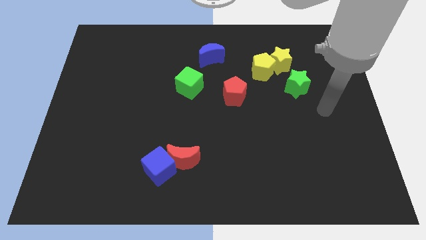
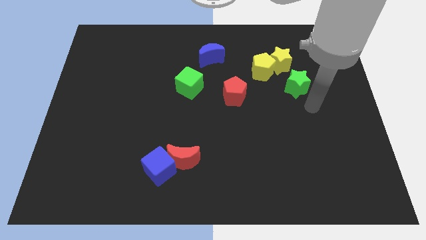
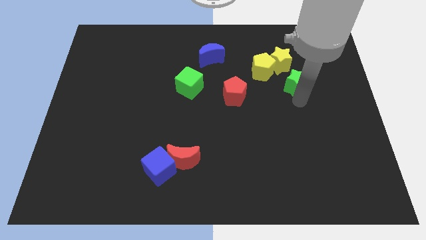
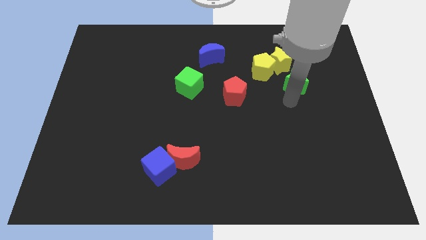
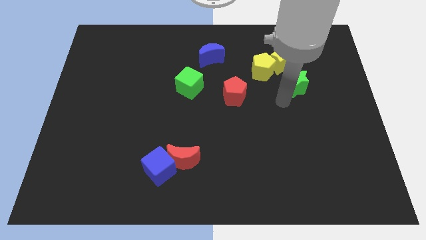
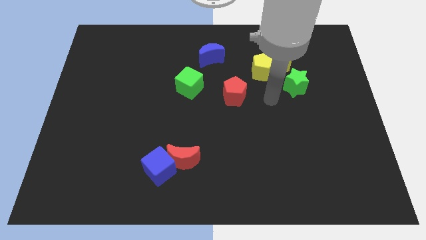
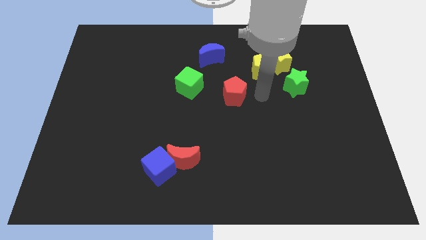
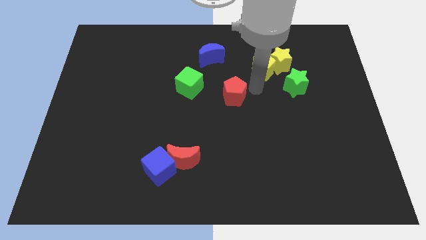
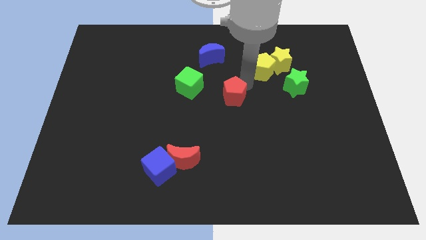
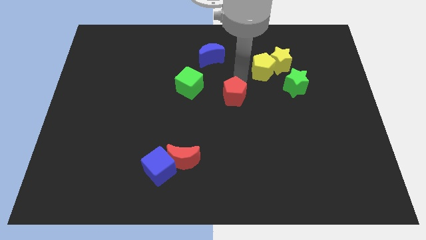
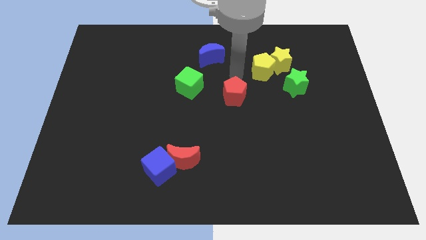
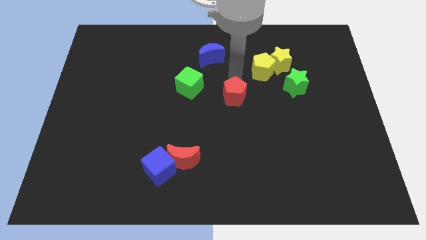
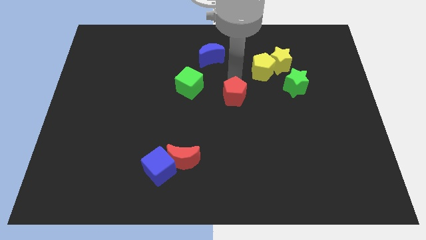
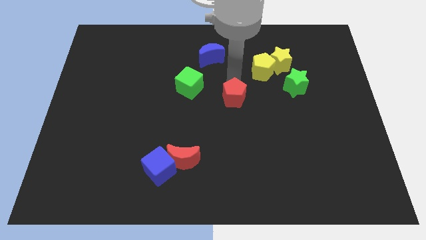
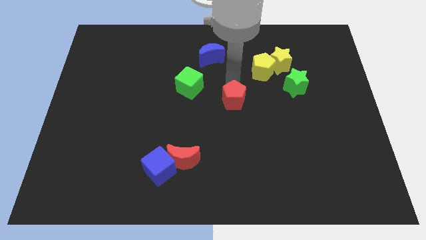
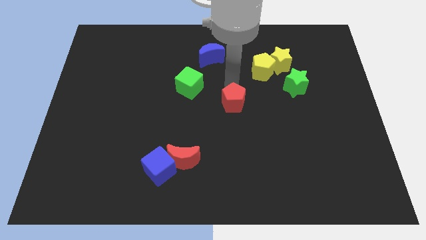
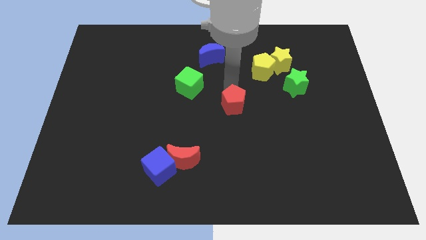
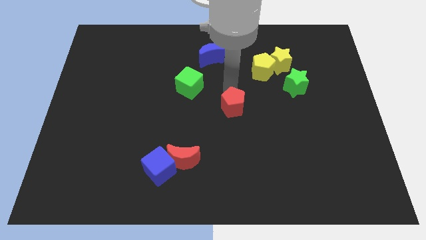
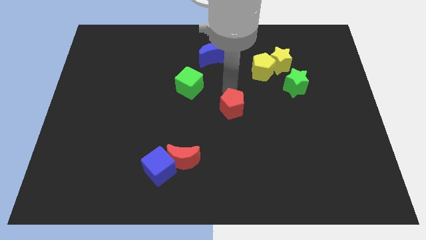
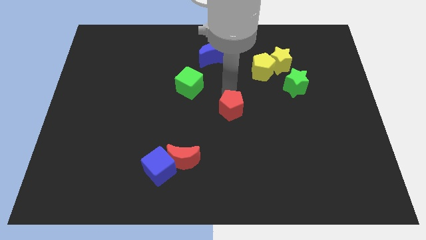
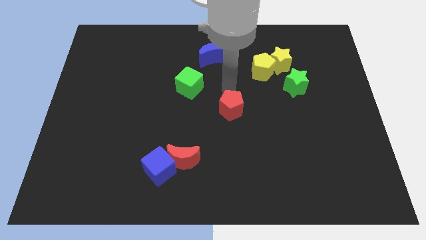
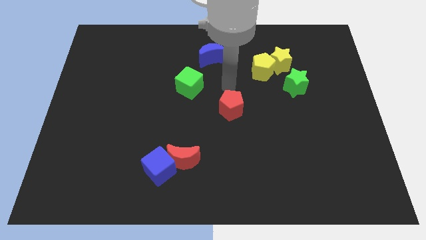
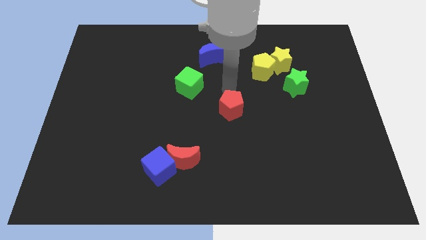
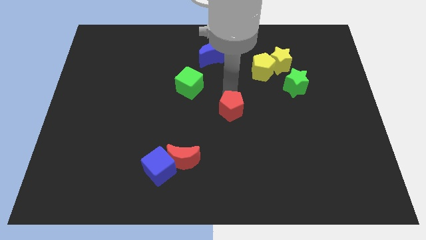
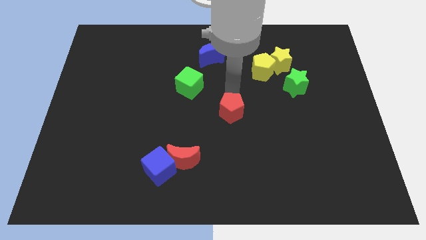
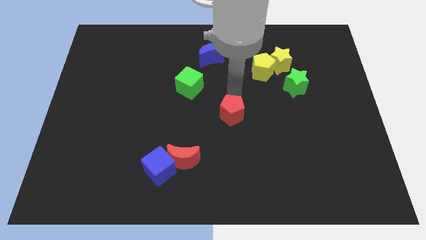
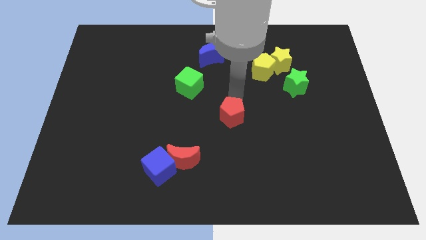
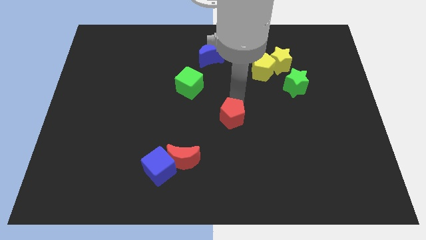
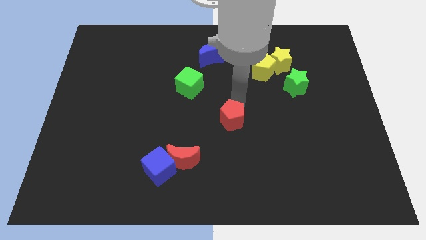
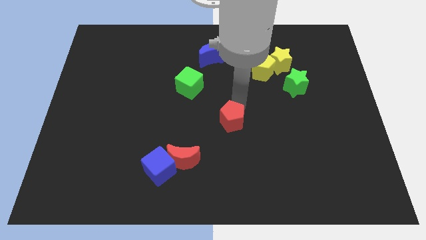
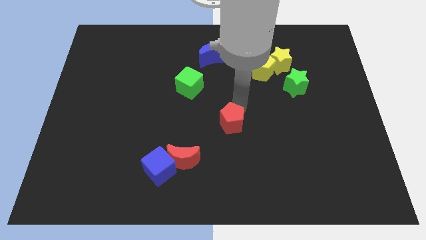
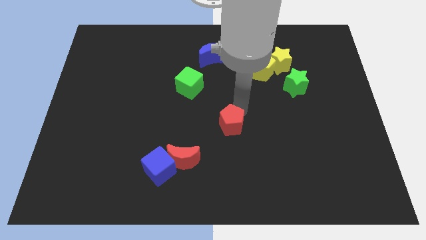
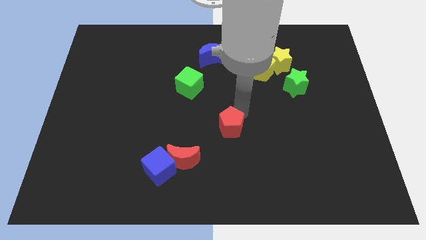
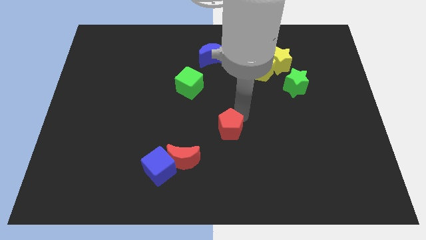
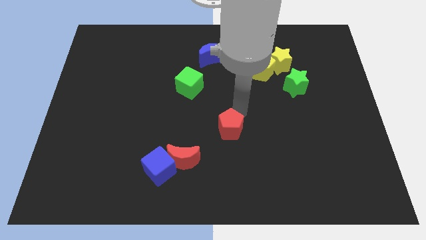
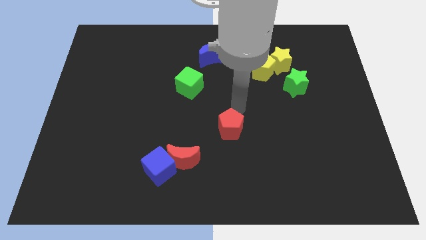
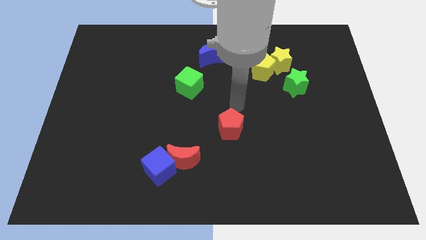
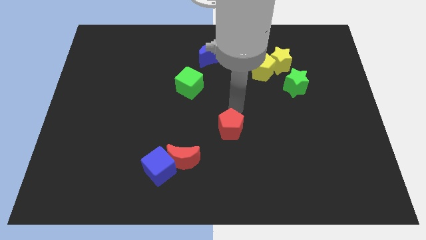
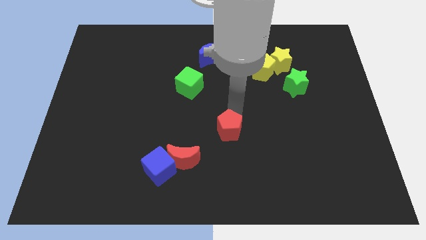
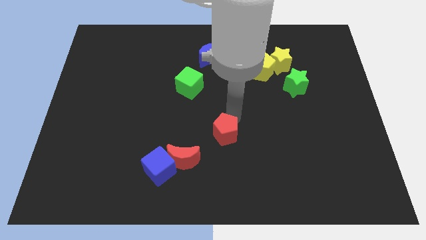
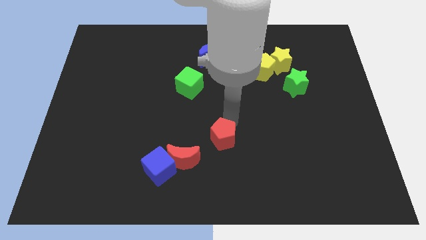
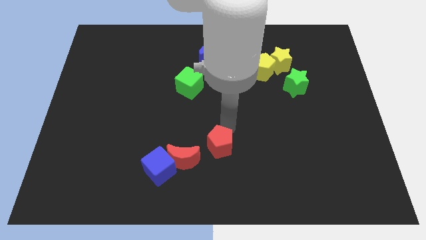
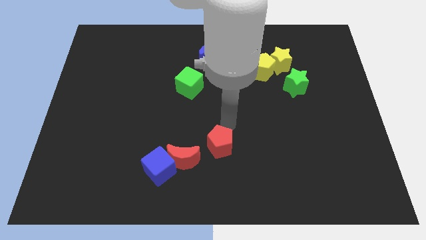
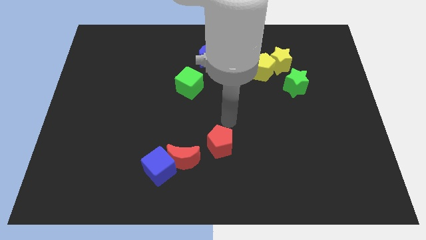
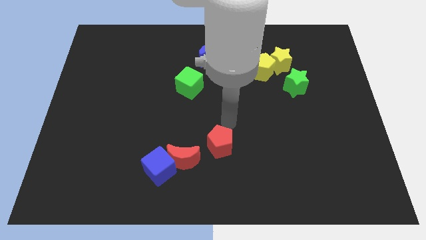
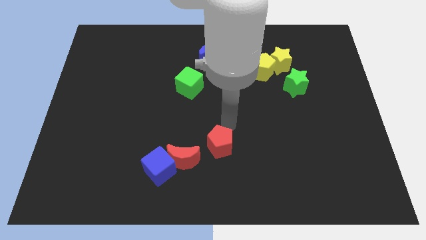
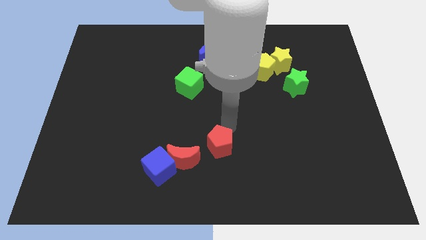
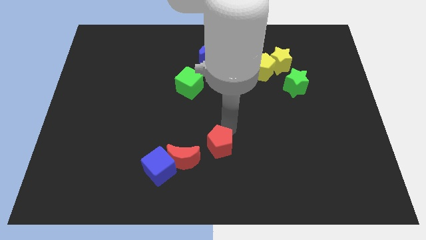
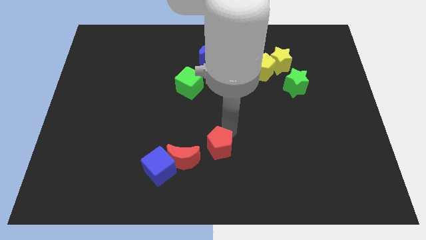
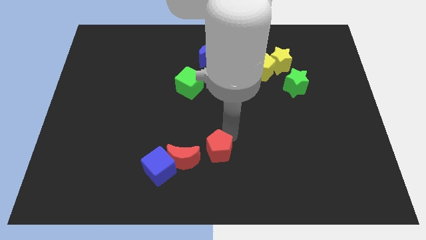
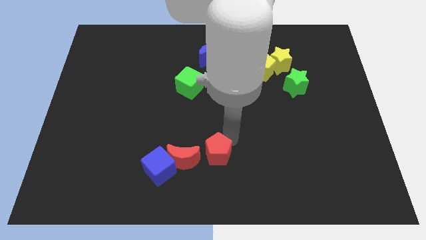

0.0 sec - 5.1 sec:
slide the red pentagon to the bottom

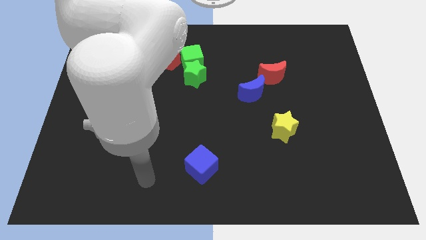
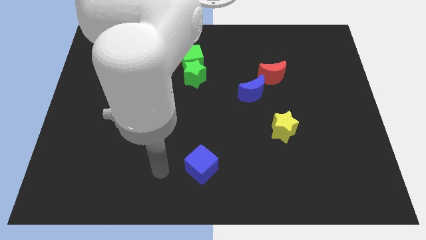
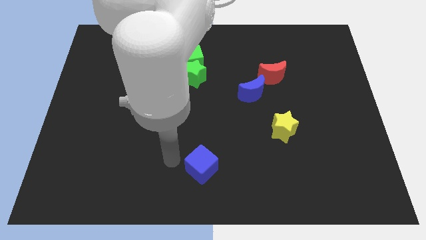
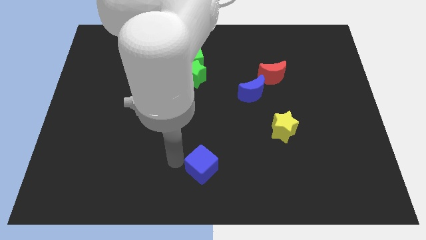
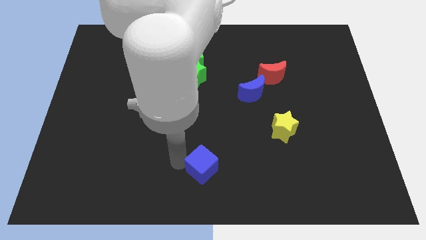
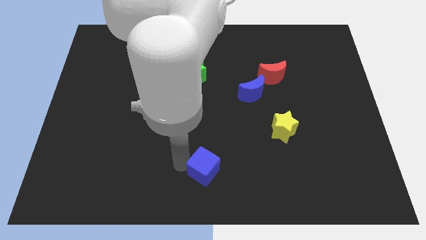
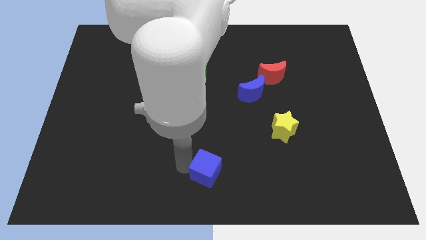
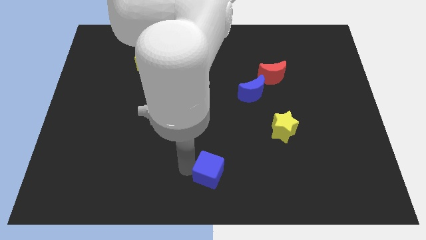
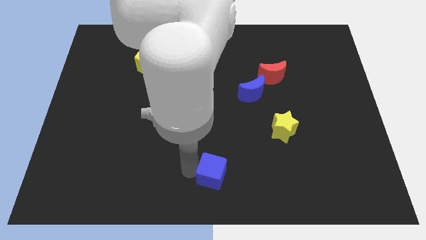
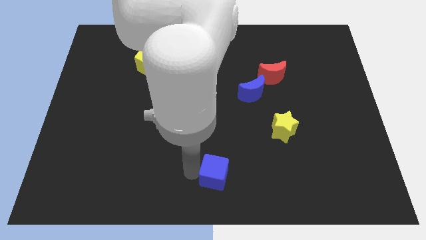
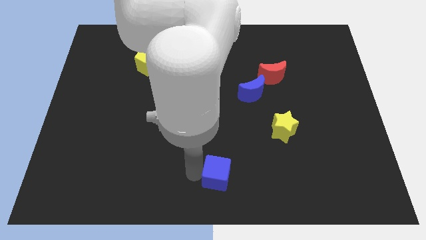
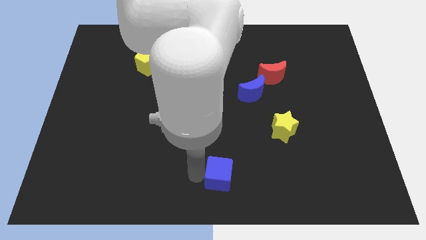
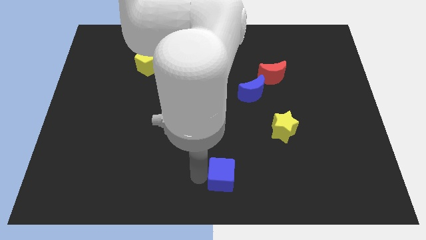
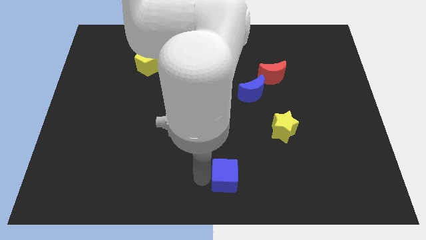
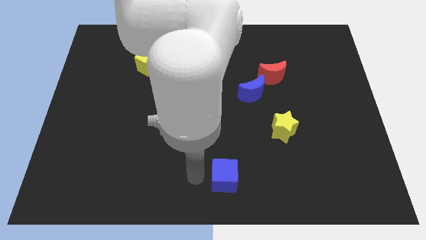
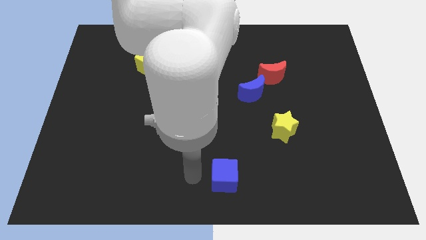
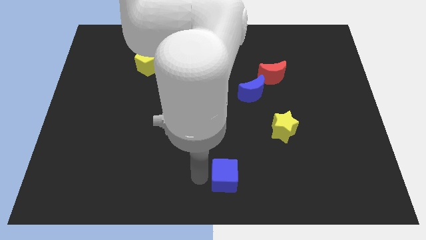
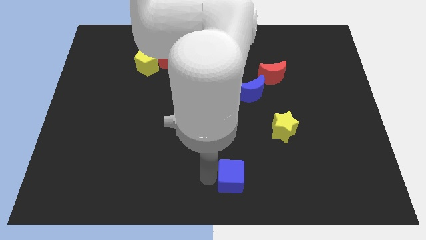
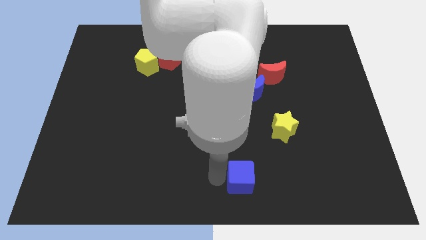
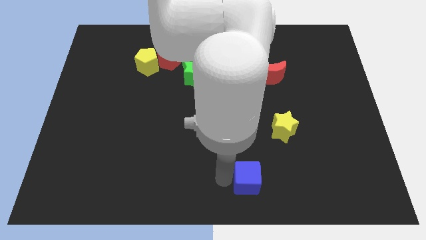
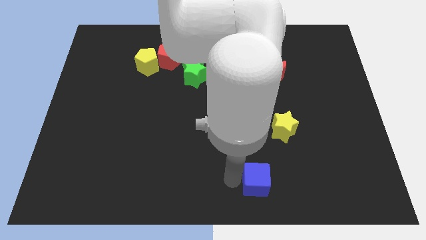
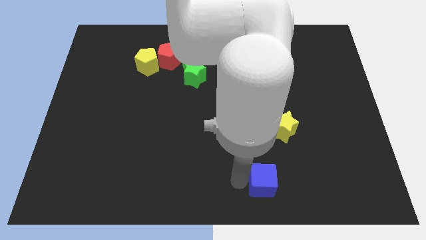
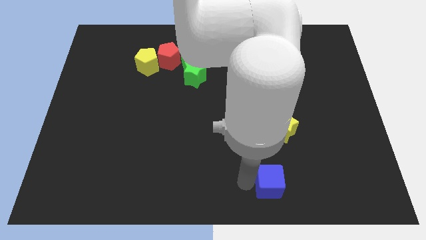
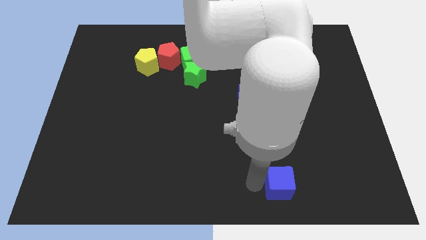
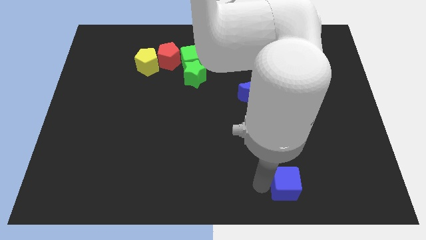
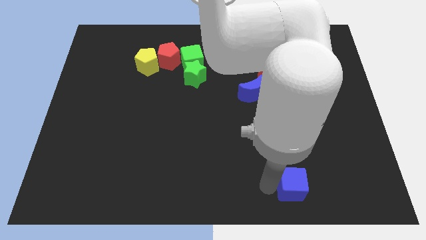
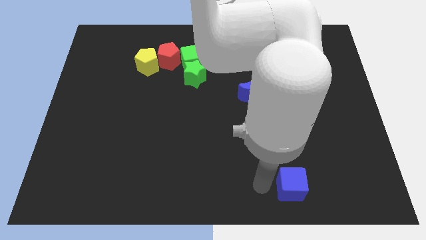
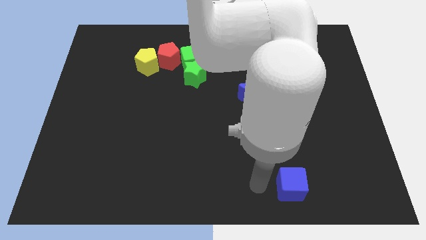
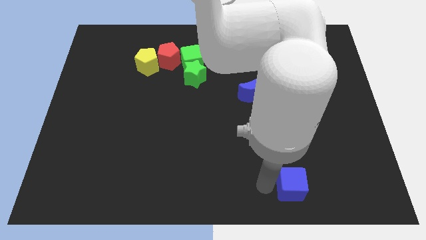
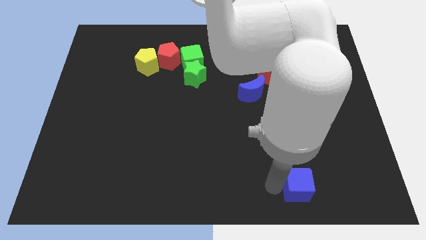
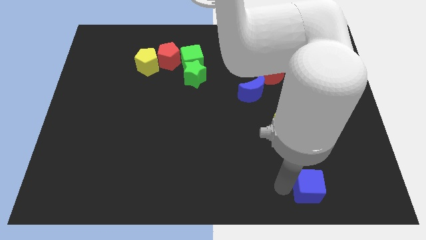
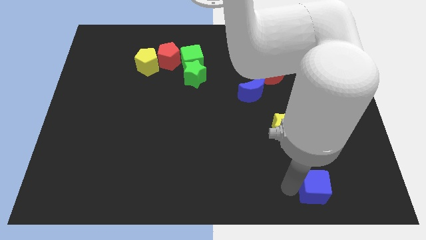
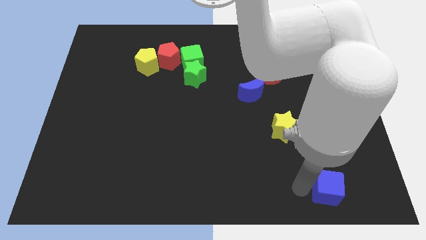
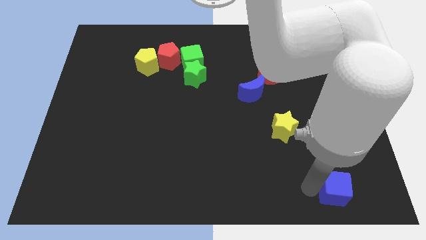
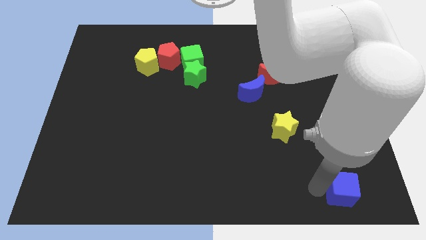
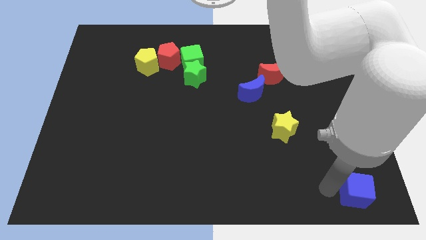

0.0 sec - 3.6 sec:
push the blue cube to the bottom right
